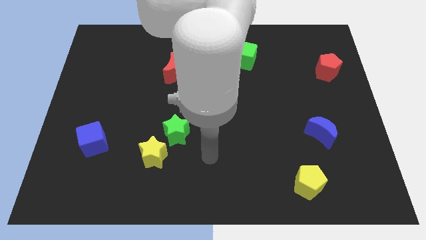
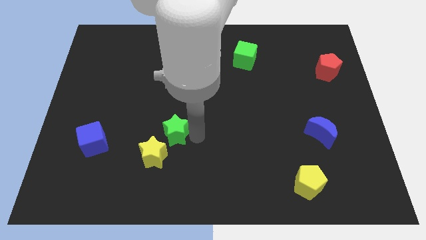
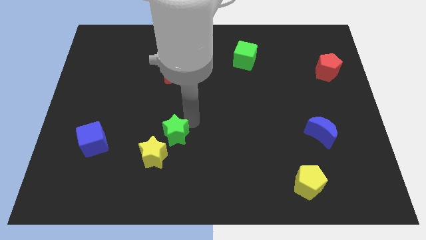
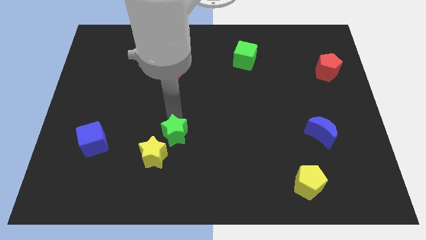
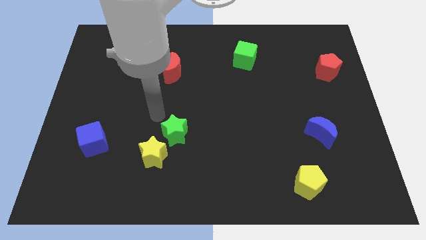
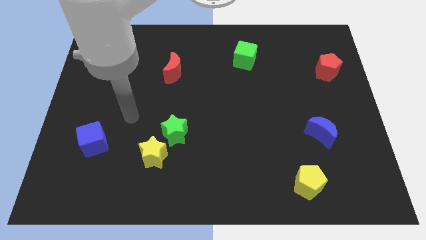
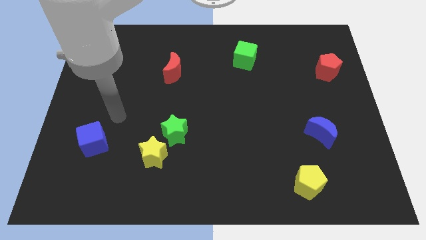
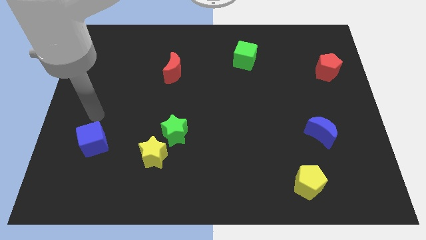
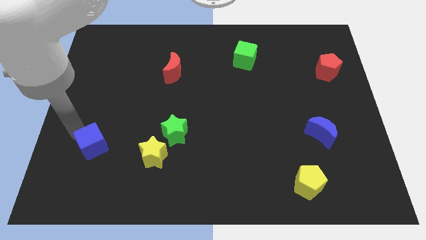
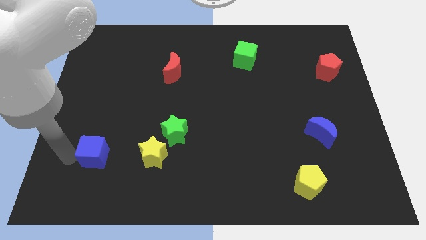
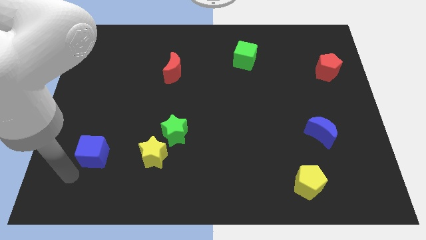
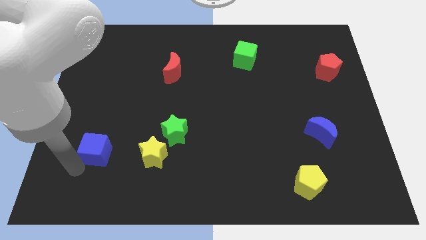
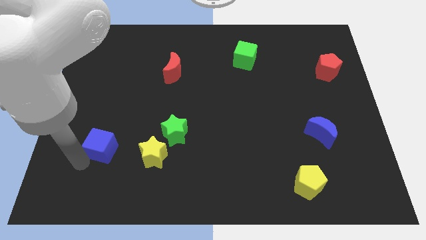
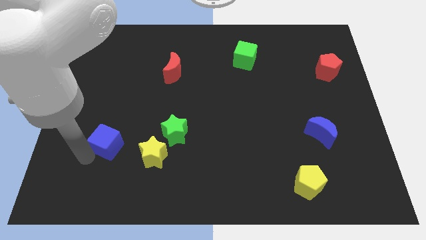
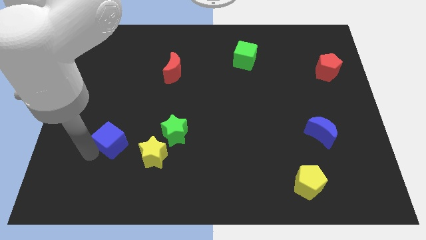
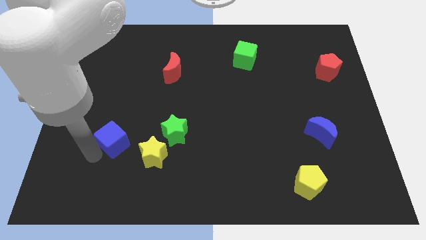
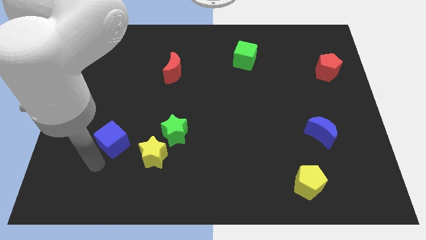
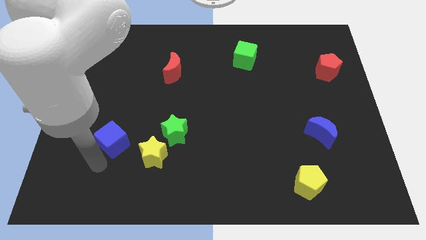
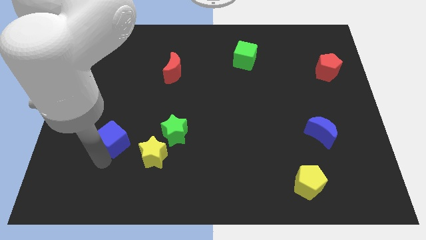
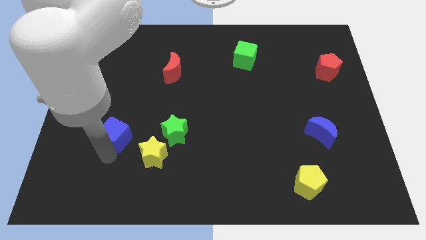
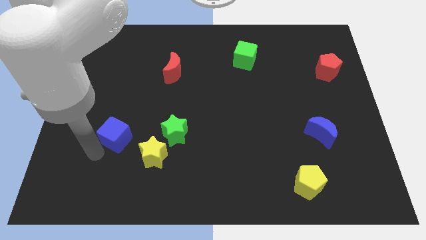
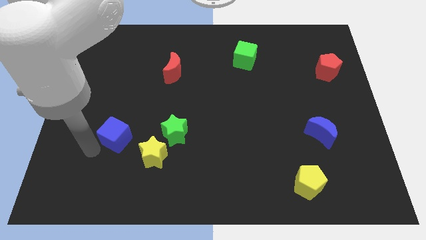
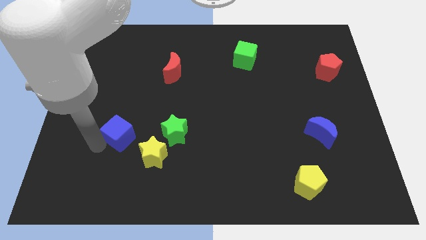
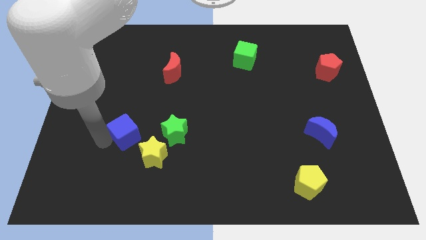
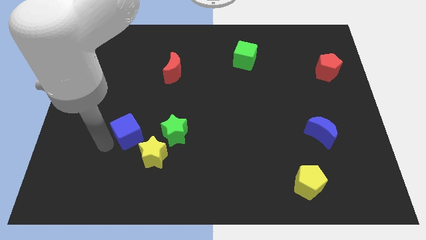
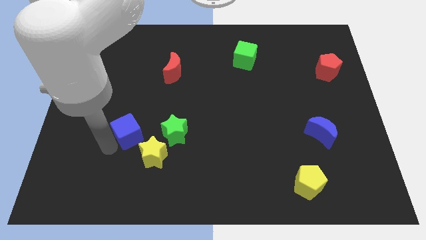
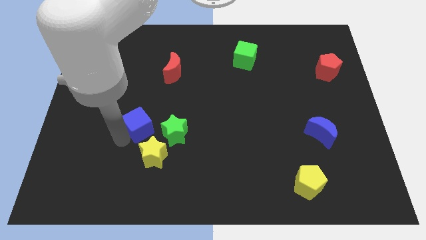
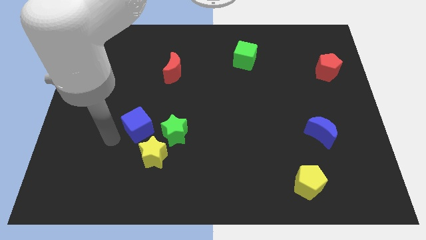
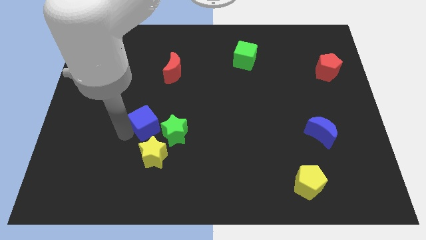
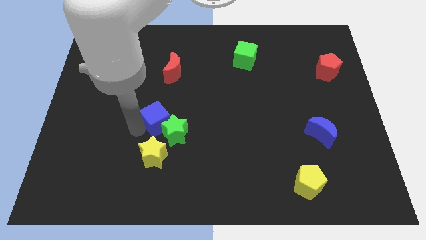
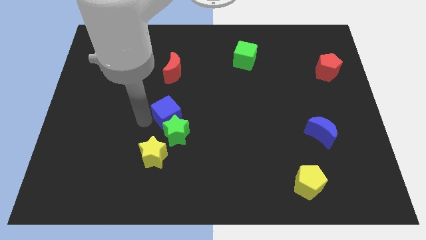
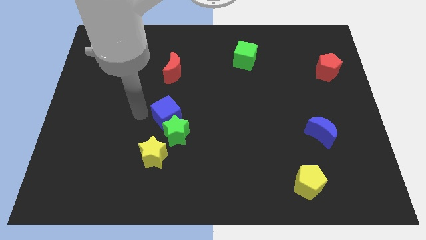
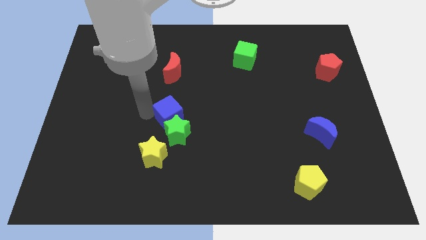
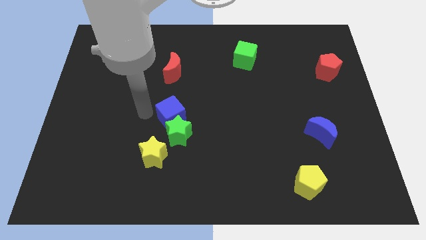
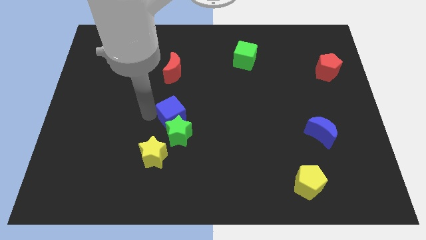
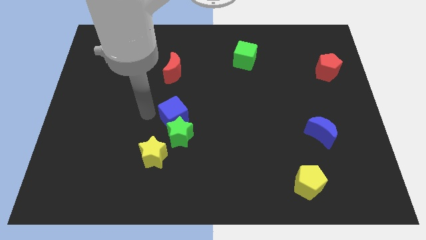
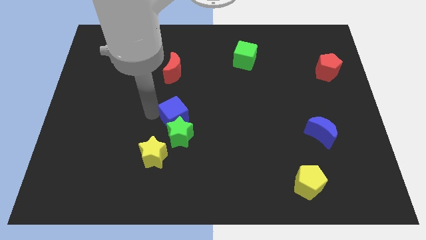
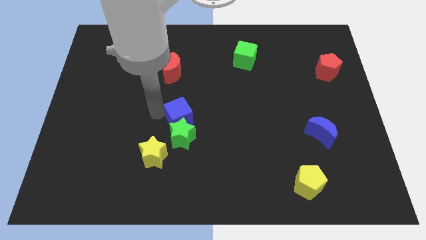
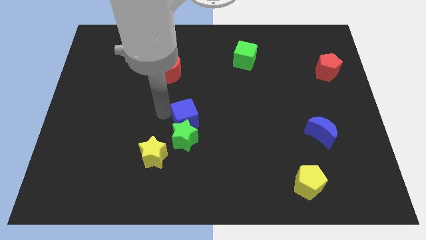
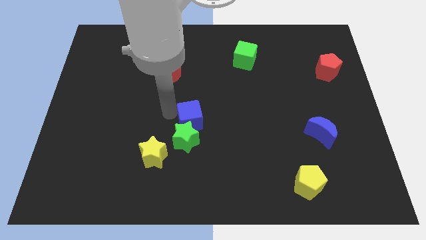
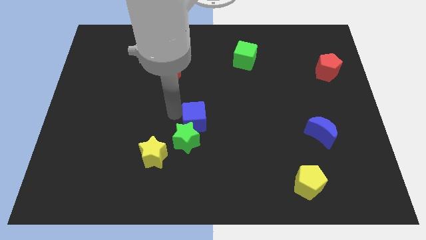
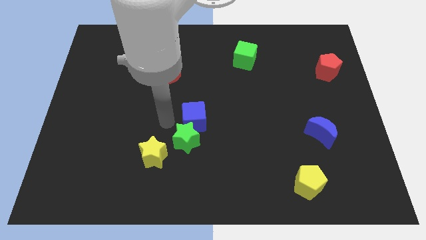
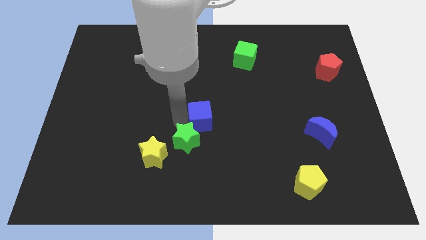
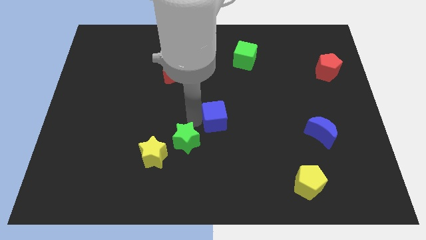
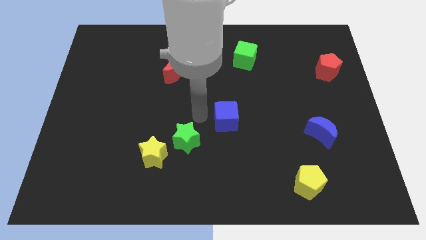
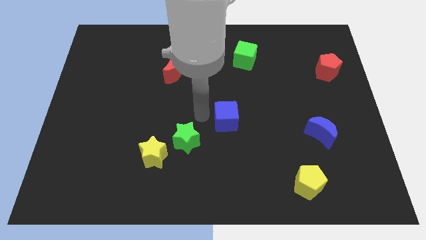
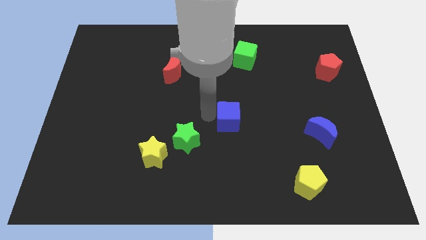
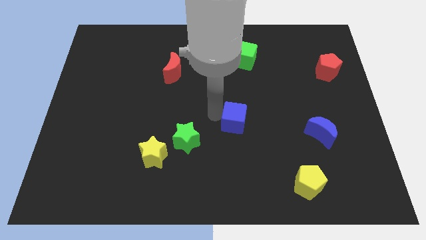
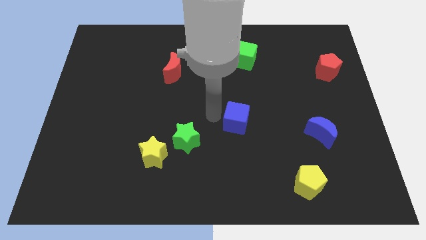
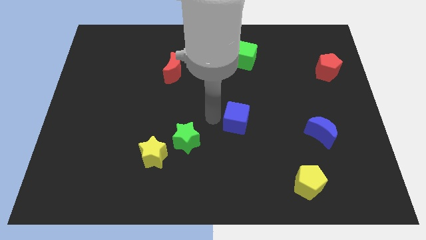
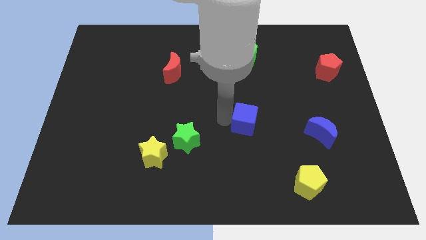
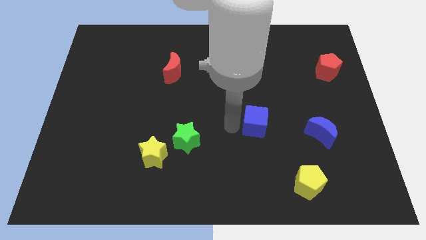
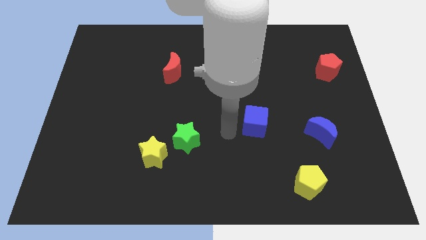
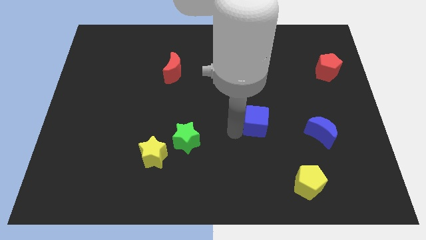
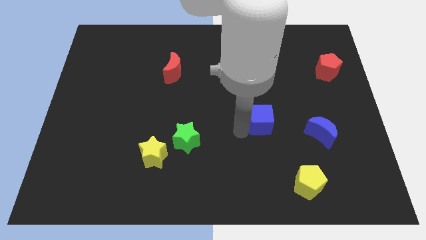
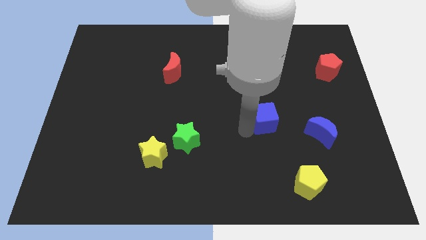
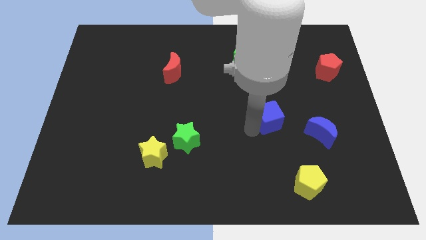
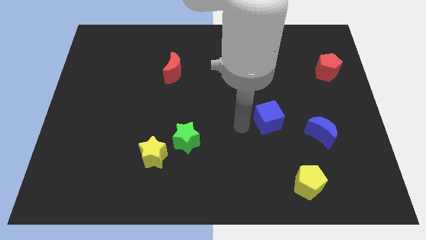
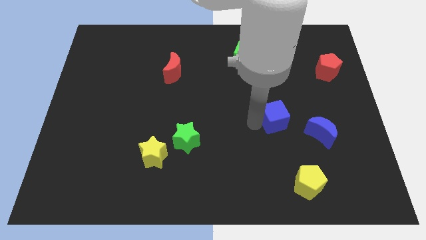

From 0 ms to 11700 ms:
slide the blue cube to the top left of the blue moon

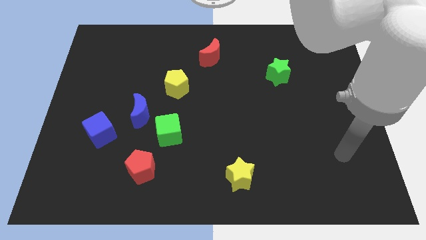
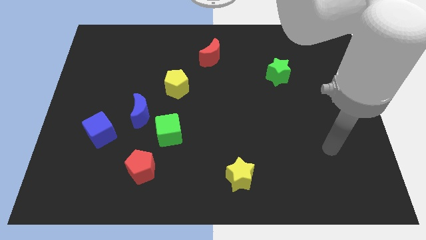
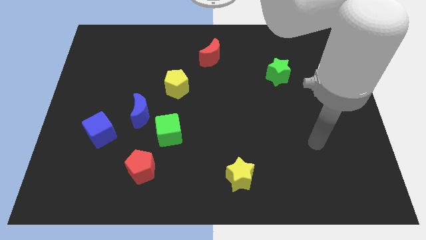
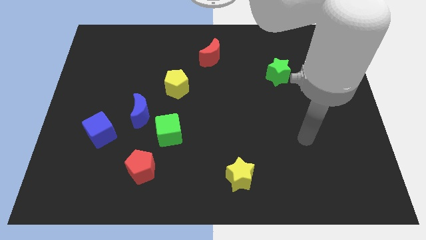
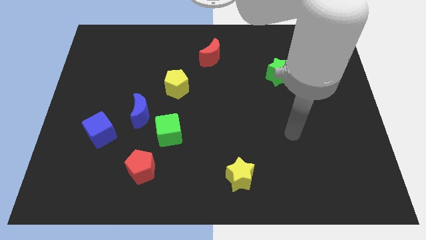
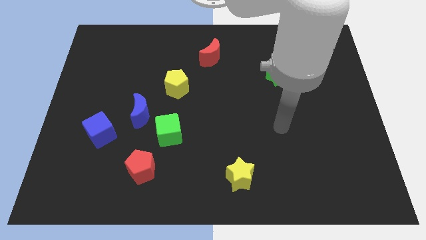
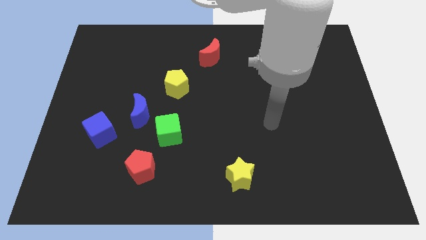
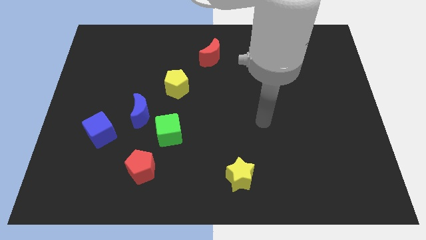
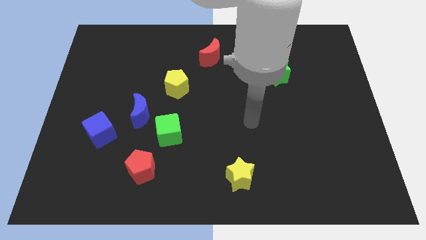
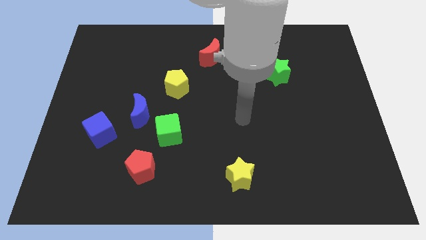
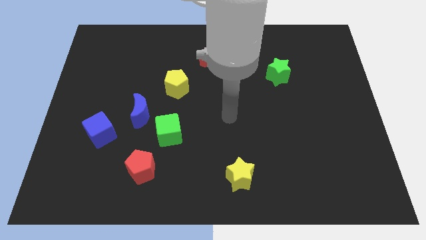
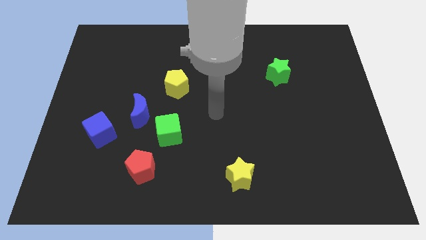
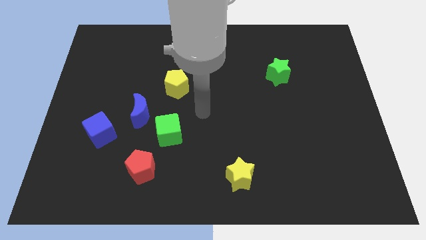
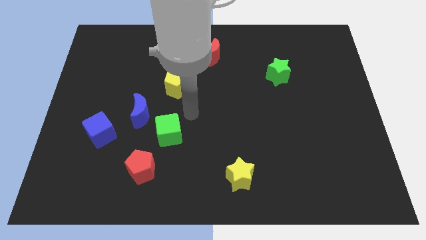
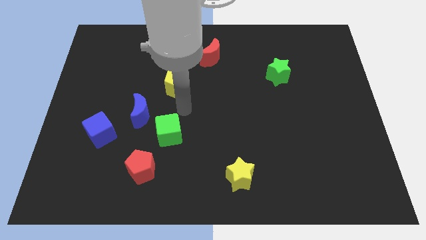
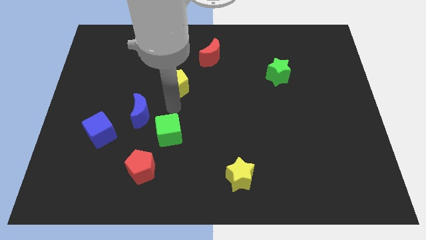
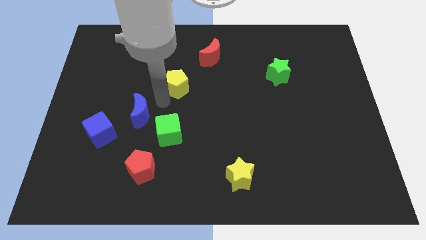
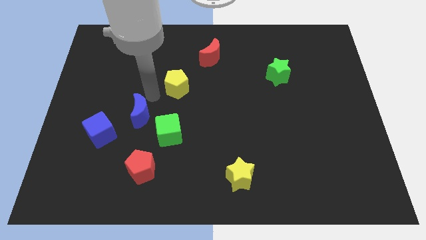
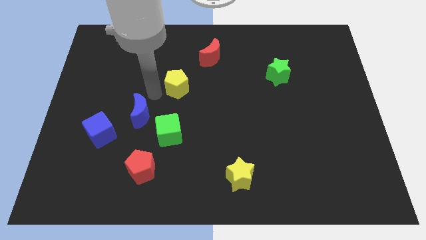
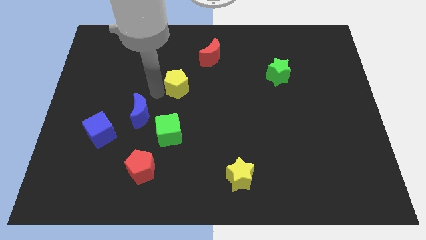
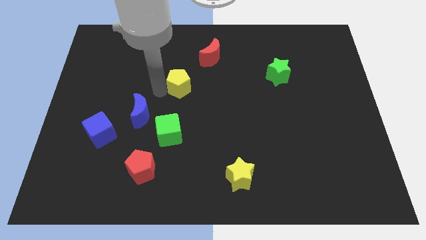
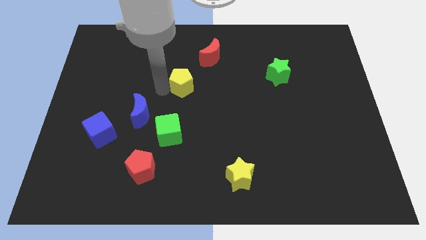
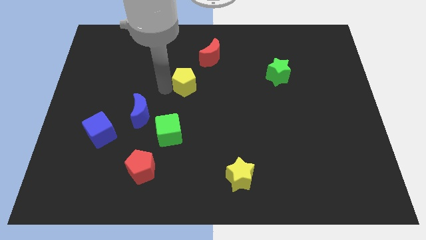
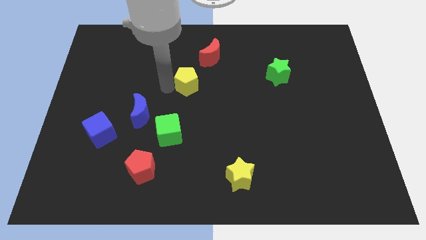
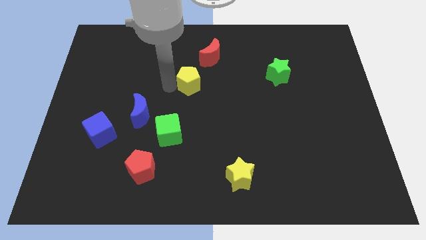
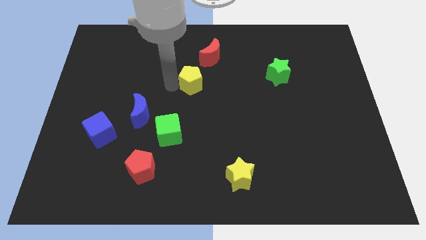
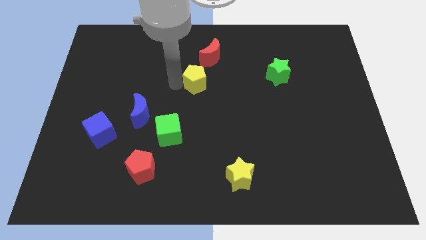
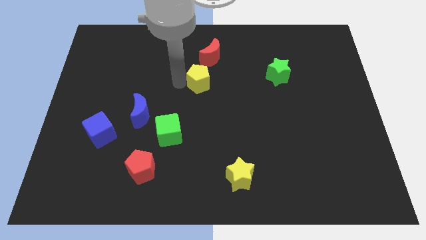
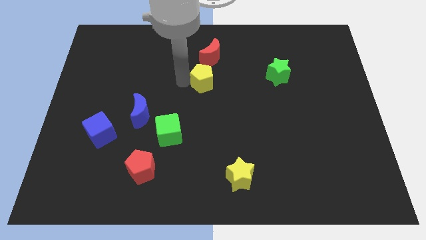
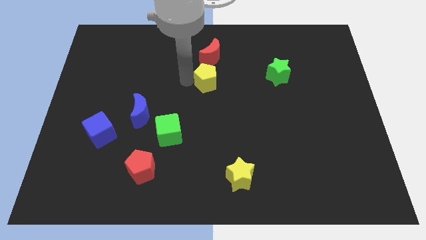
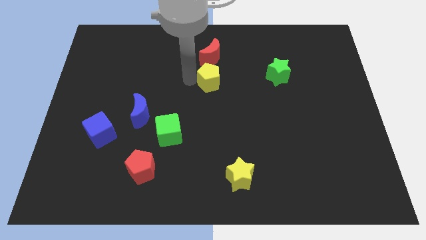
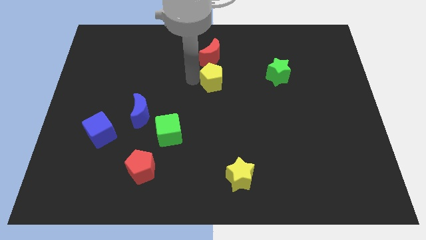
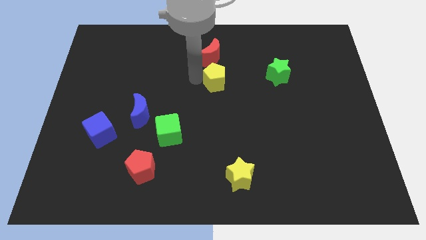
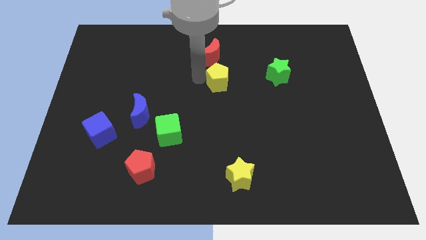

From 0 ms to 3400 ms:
slide the yellow pentagon to the bottom right side of the red moon
